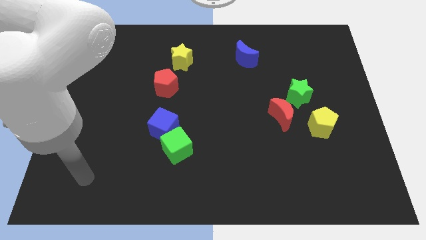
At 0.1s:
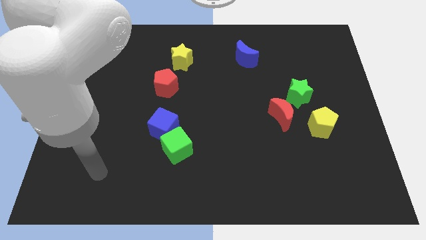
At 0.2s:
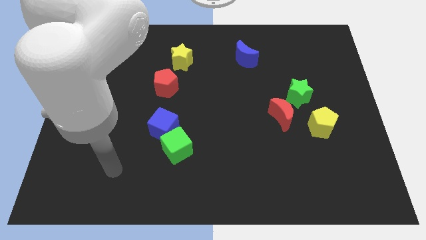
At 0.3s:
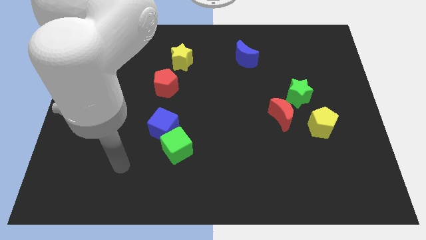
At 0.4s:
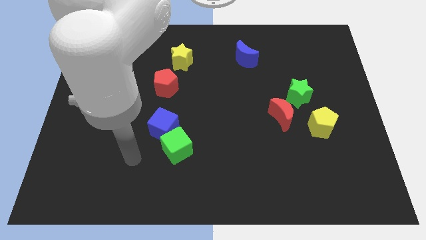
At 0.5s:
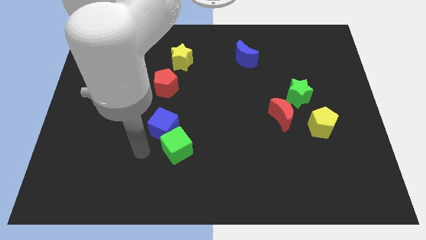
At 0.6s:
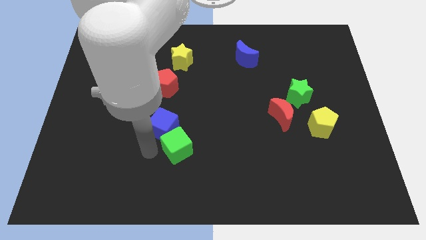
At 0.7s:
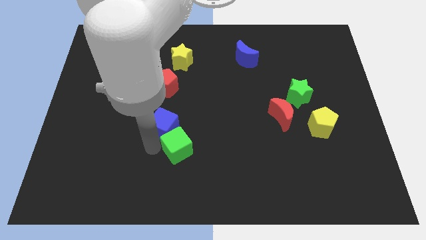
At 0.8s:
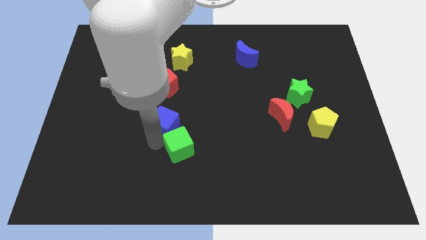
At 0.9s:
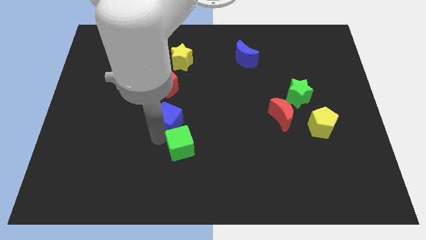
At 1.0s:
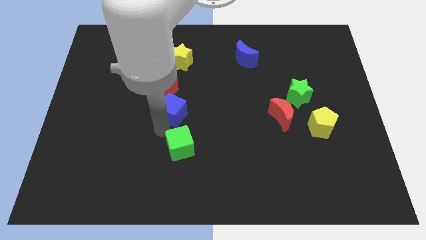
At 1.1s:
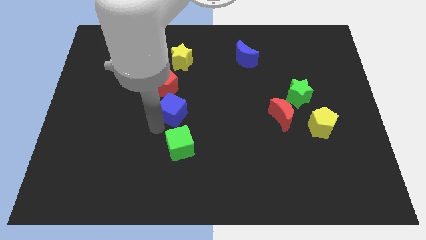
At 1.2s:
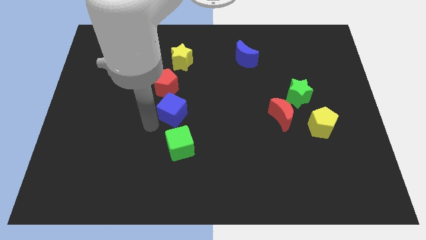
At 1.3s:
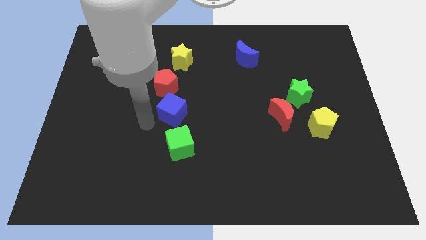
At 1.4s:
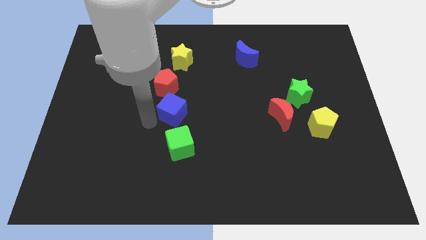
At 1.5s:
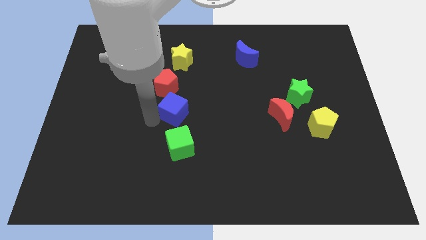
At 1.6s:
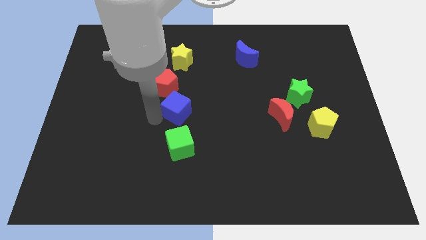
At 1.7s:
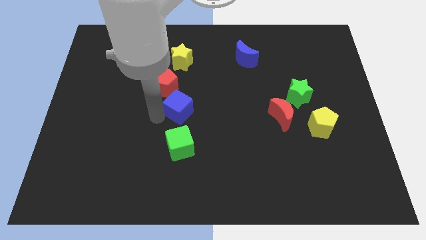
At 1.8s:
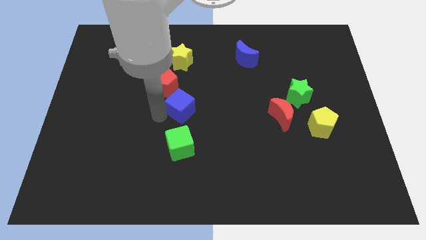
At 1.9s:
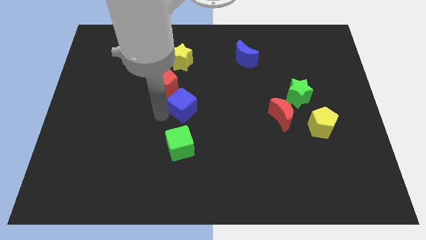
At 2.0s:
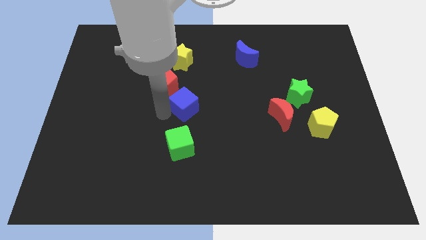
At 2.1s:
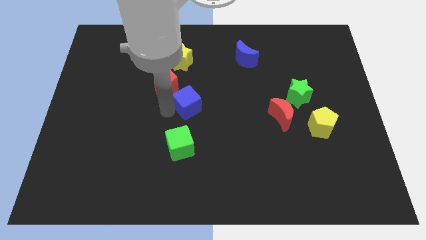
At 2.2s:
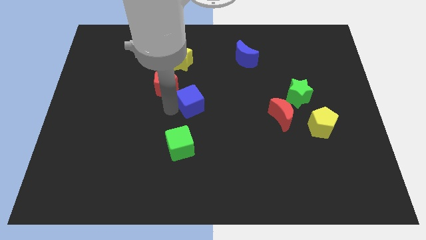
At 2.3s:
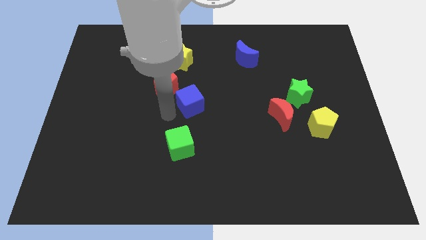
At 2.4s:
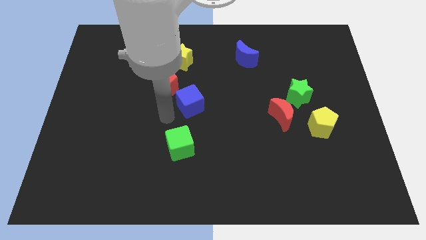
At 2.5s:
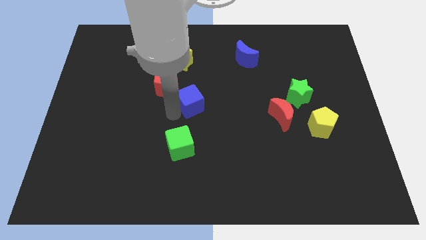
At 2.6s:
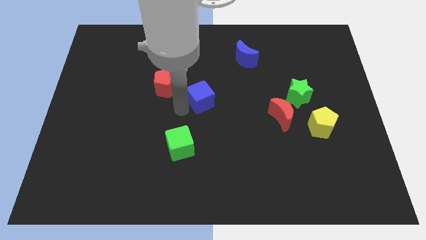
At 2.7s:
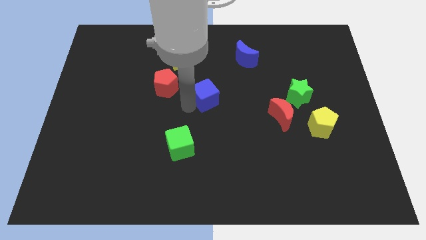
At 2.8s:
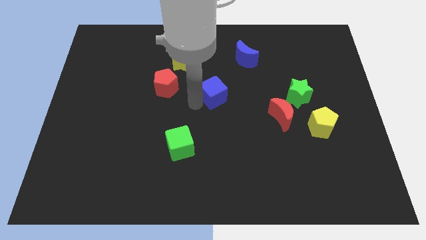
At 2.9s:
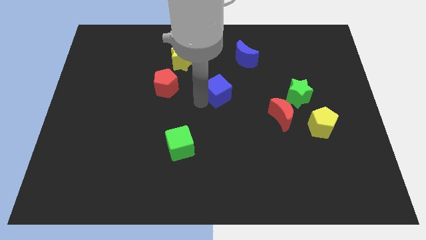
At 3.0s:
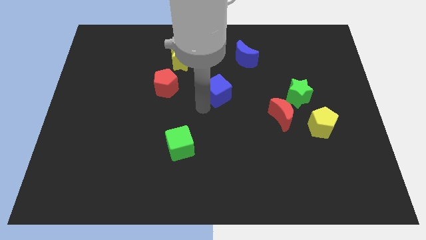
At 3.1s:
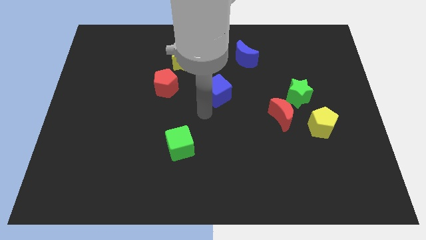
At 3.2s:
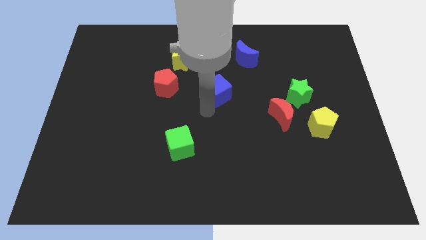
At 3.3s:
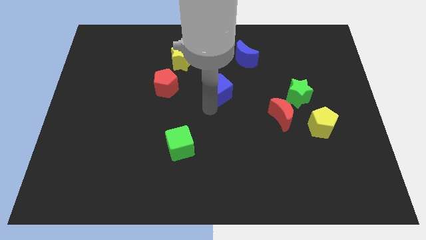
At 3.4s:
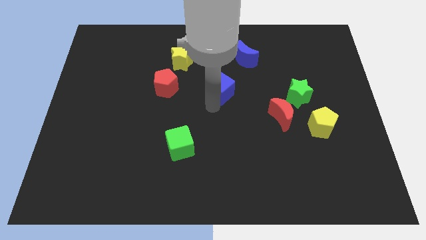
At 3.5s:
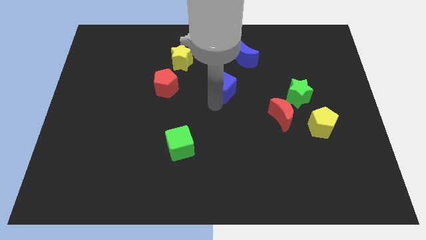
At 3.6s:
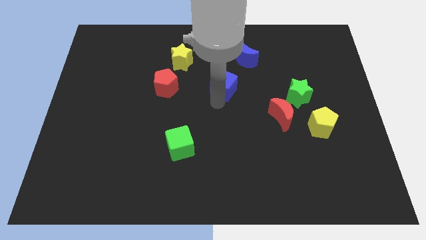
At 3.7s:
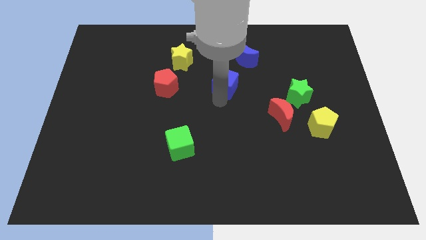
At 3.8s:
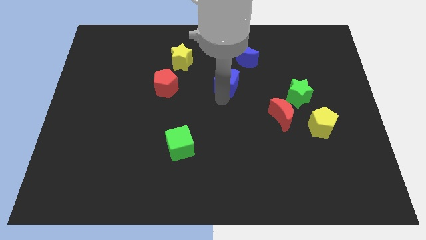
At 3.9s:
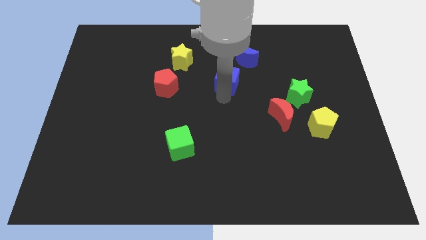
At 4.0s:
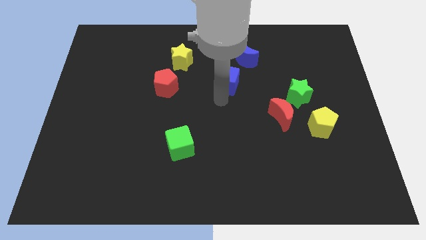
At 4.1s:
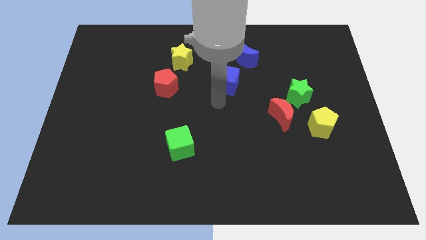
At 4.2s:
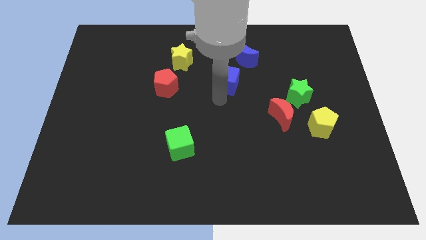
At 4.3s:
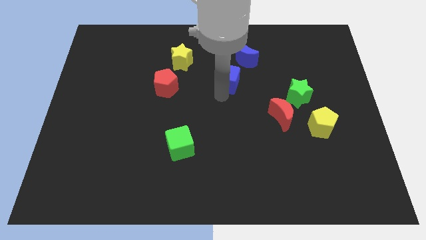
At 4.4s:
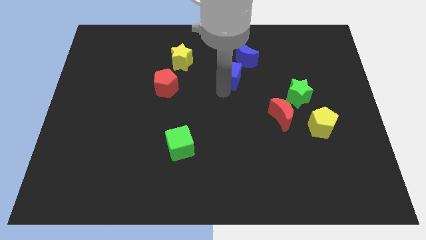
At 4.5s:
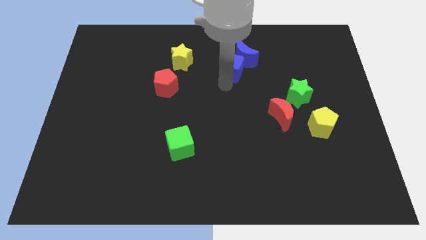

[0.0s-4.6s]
move the blue cube to the blue moon

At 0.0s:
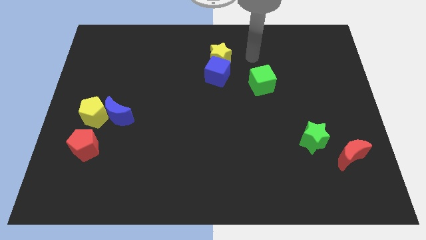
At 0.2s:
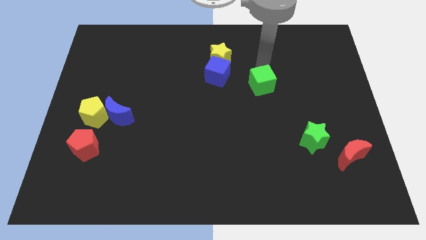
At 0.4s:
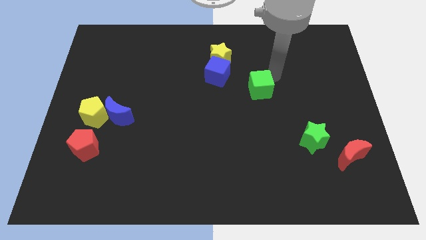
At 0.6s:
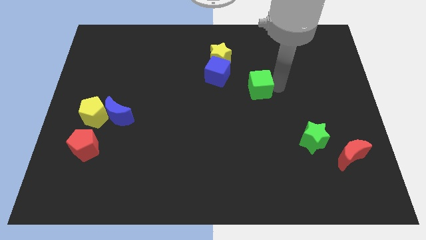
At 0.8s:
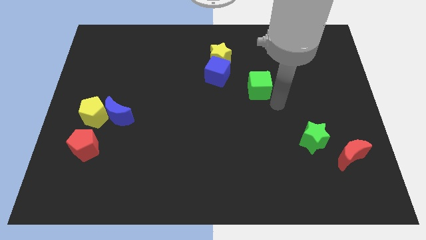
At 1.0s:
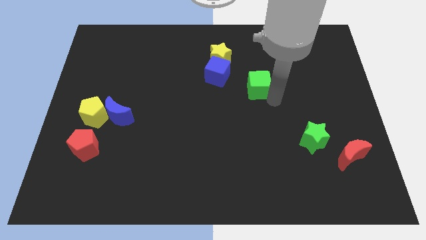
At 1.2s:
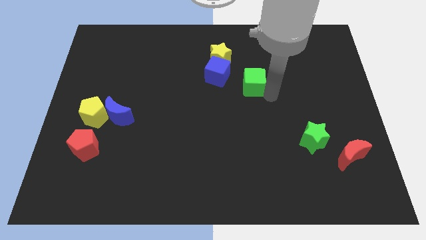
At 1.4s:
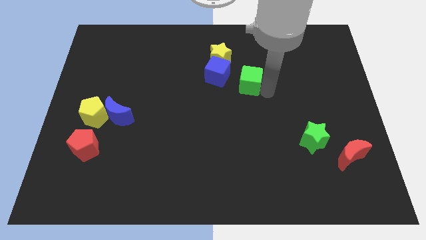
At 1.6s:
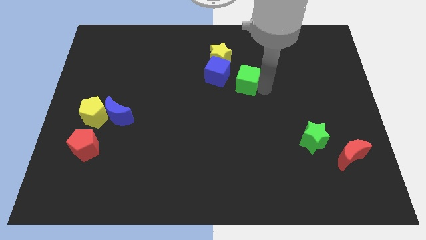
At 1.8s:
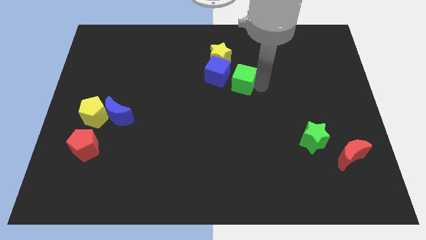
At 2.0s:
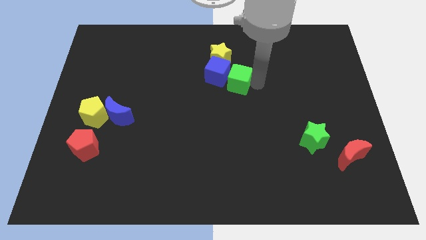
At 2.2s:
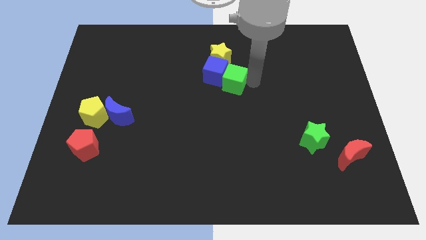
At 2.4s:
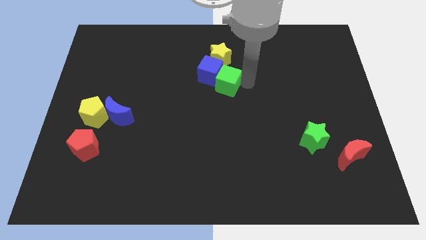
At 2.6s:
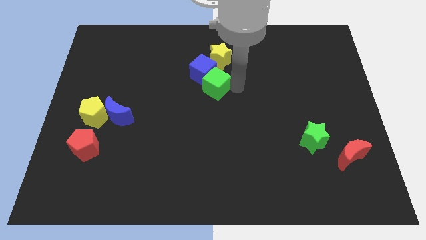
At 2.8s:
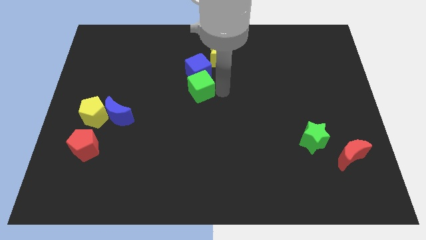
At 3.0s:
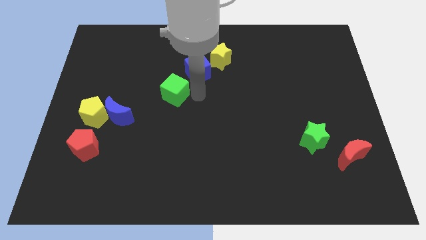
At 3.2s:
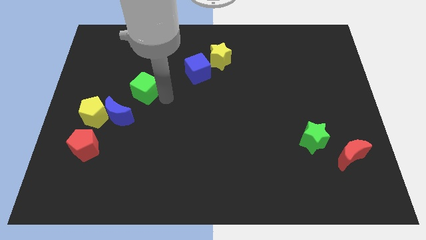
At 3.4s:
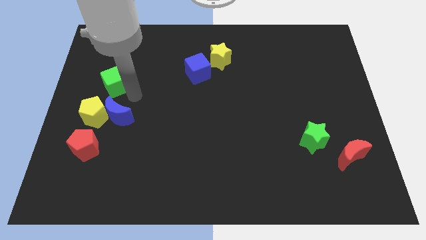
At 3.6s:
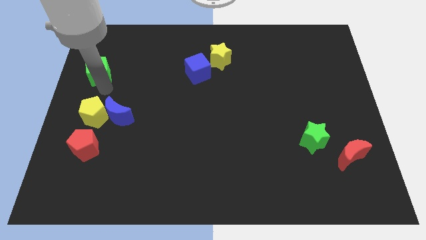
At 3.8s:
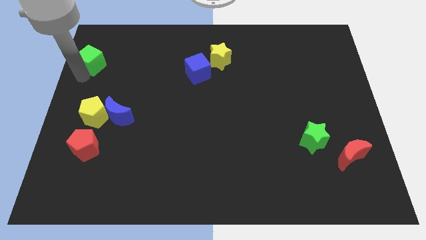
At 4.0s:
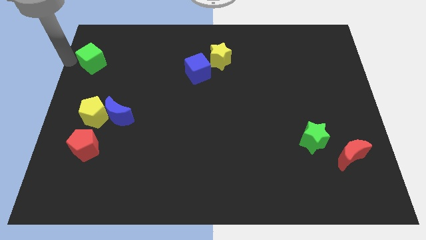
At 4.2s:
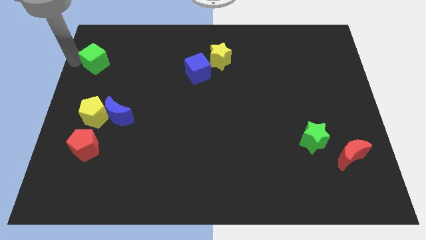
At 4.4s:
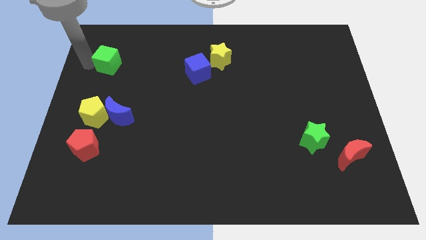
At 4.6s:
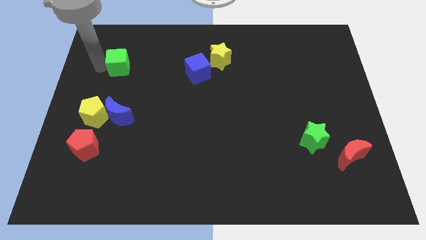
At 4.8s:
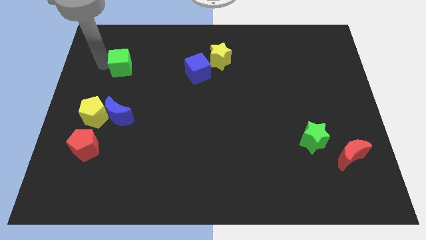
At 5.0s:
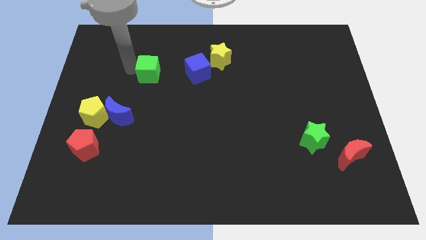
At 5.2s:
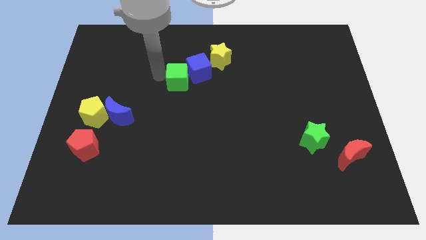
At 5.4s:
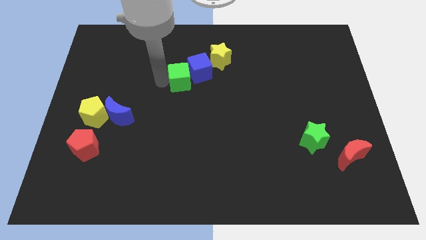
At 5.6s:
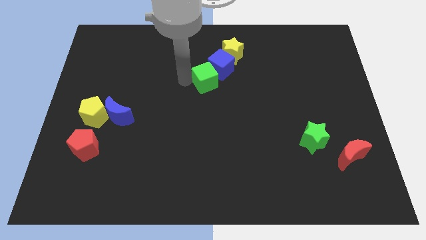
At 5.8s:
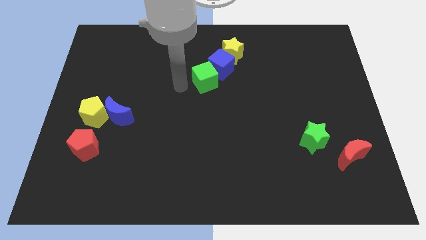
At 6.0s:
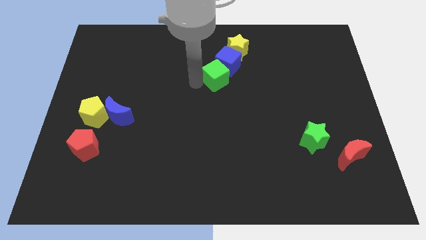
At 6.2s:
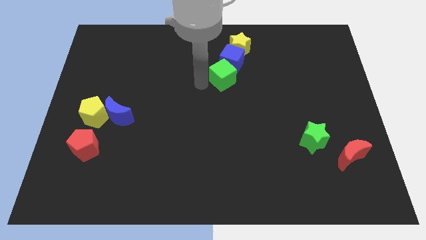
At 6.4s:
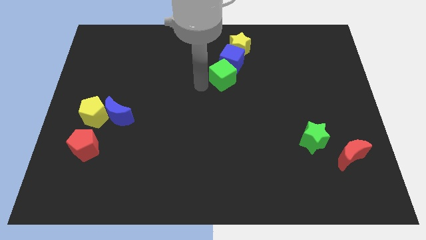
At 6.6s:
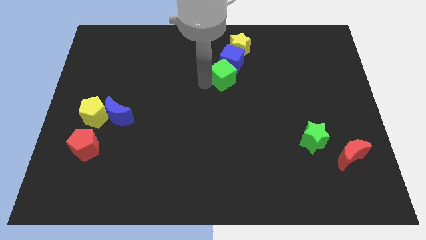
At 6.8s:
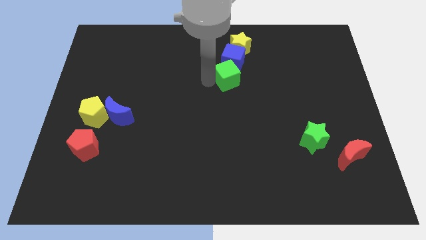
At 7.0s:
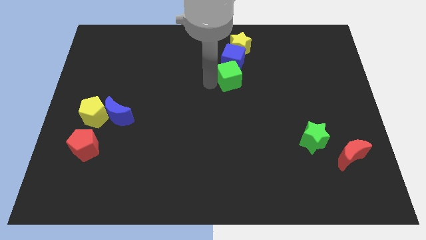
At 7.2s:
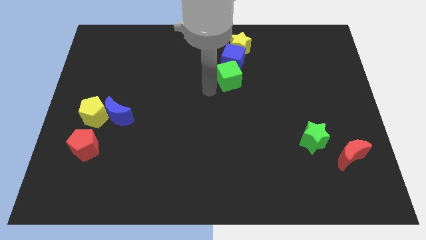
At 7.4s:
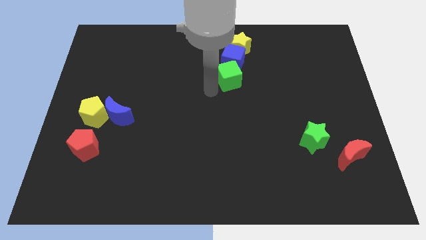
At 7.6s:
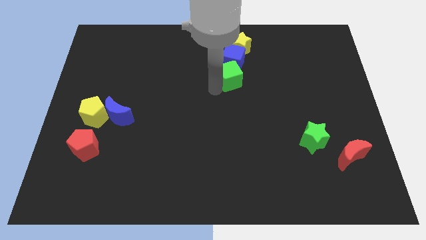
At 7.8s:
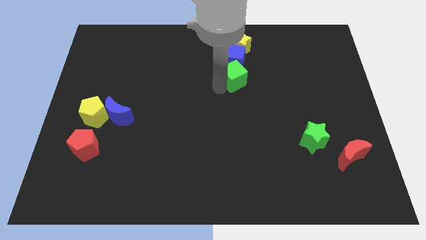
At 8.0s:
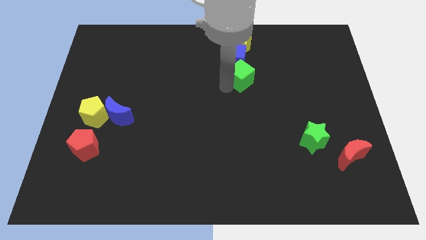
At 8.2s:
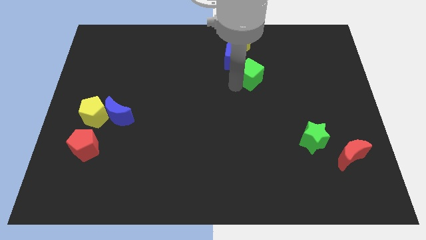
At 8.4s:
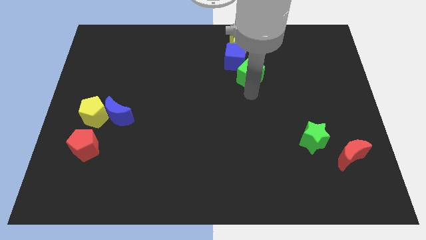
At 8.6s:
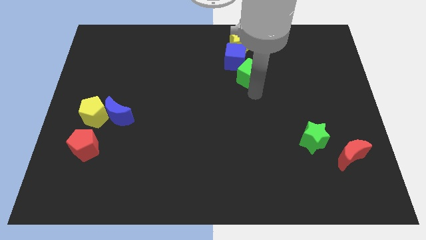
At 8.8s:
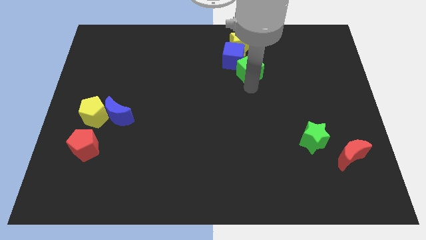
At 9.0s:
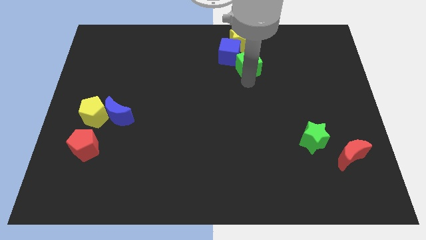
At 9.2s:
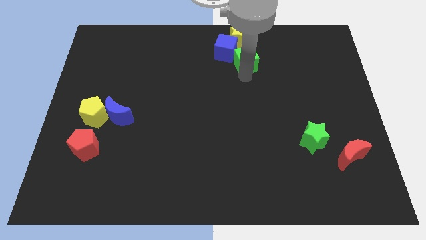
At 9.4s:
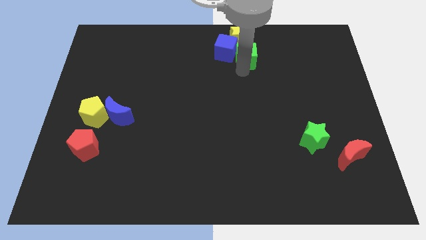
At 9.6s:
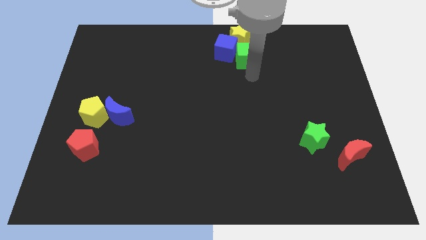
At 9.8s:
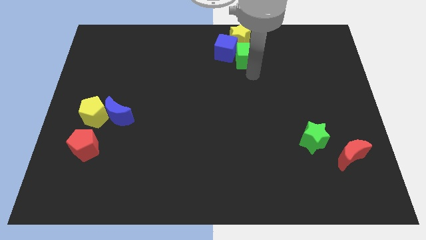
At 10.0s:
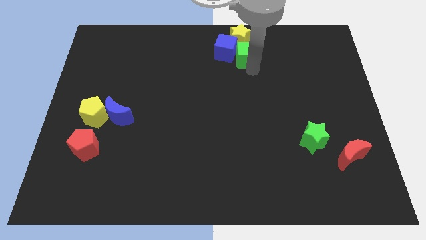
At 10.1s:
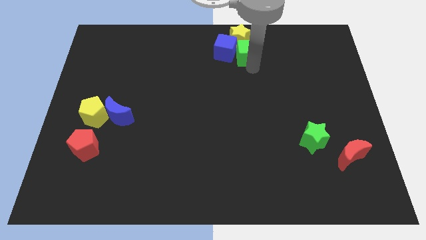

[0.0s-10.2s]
slide the green cube next to the yellow star
